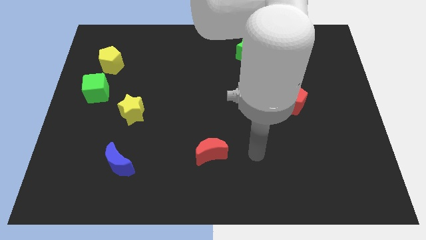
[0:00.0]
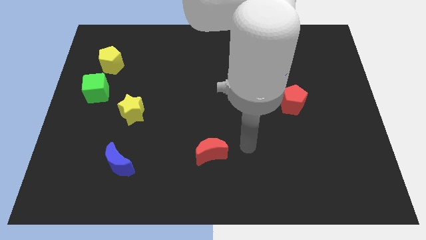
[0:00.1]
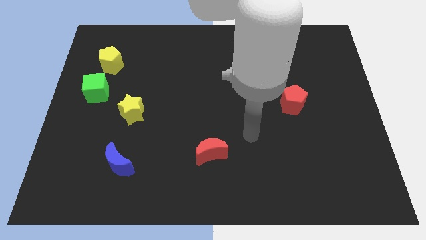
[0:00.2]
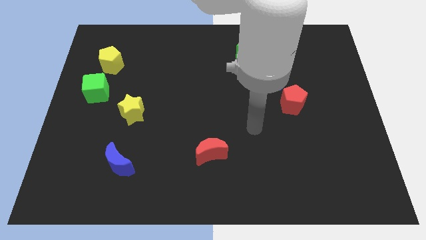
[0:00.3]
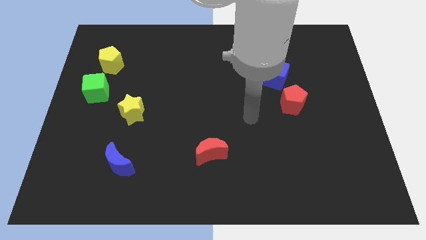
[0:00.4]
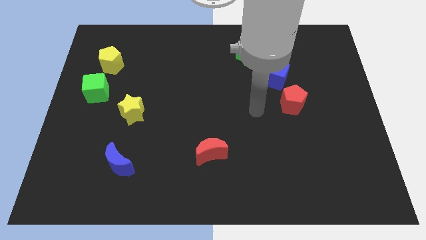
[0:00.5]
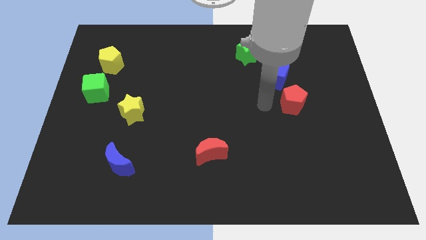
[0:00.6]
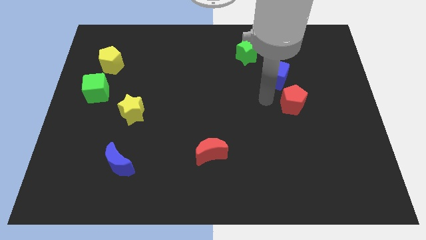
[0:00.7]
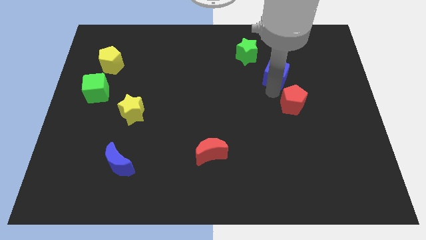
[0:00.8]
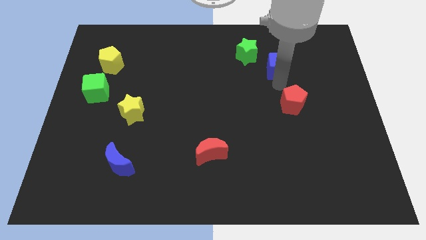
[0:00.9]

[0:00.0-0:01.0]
separate the red pentagon from the blue cube

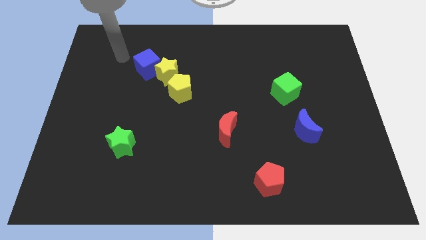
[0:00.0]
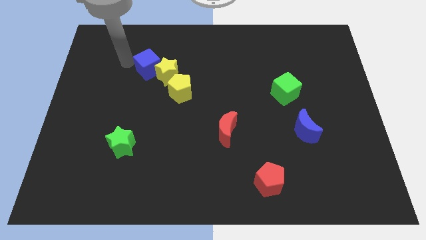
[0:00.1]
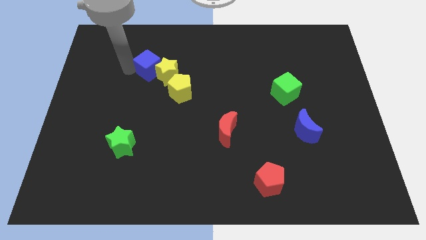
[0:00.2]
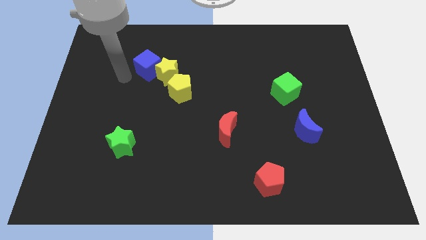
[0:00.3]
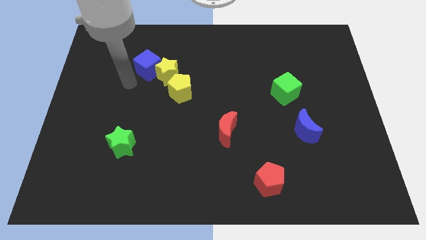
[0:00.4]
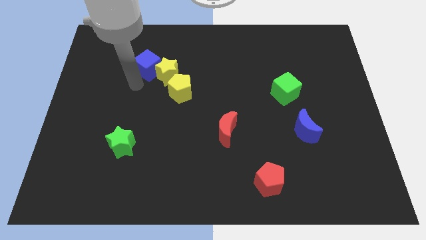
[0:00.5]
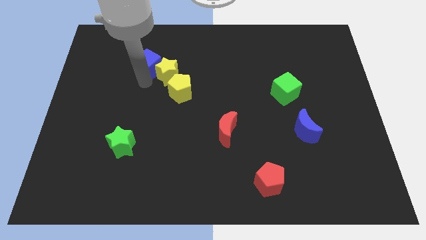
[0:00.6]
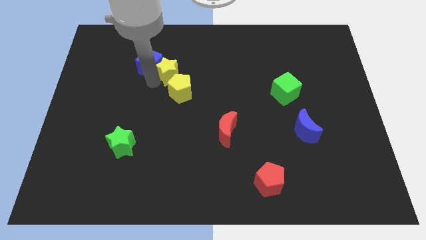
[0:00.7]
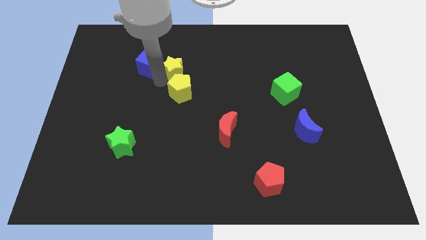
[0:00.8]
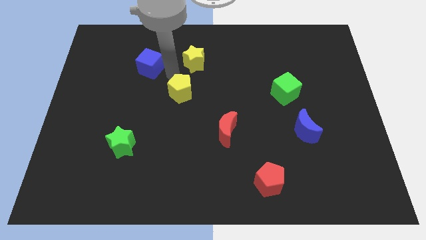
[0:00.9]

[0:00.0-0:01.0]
separate the blue cube from the yellow star

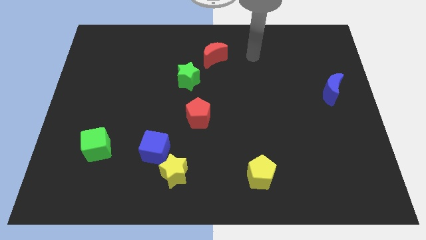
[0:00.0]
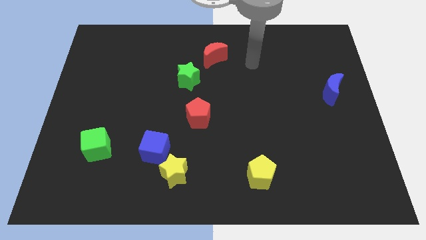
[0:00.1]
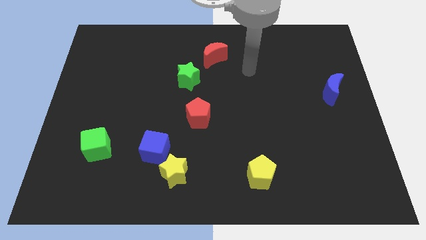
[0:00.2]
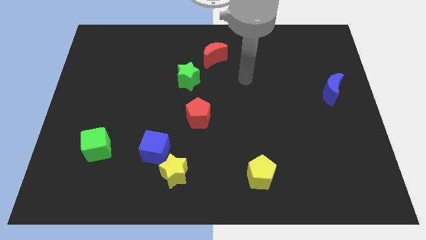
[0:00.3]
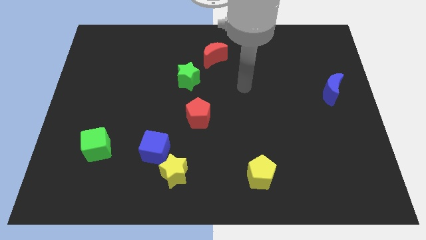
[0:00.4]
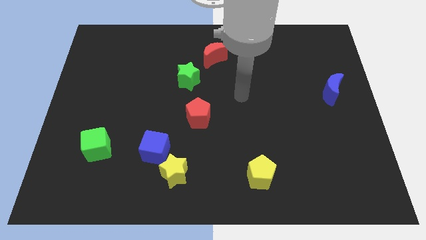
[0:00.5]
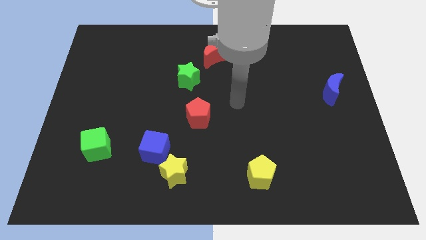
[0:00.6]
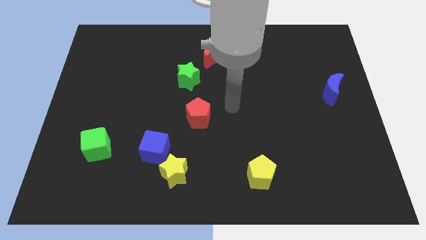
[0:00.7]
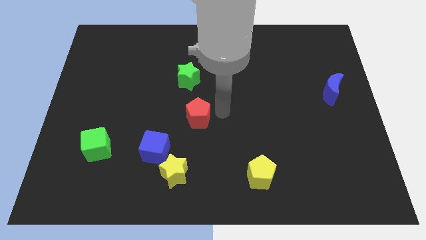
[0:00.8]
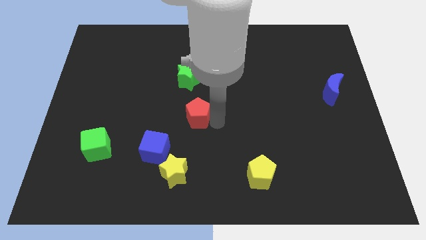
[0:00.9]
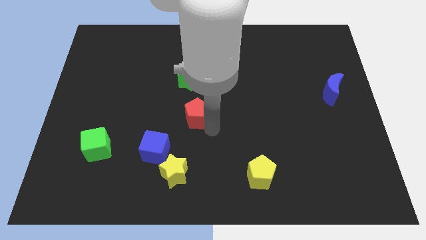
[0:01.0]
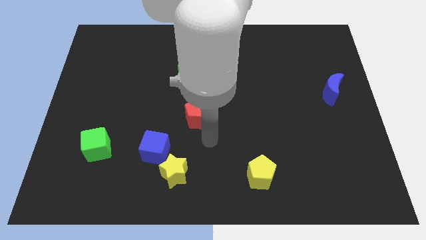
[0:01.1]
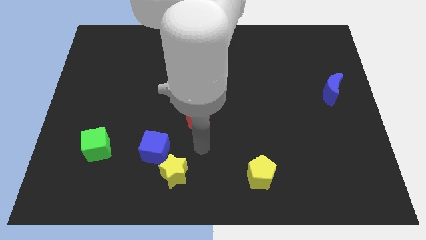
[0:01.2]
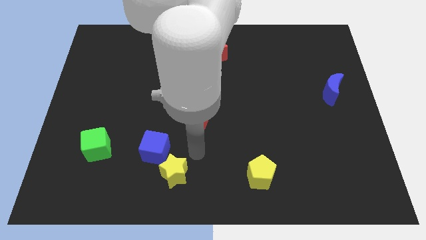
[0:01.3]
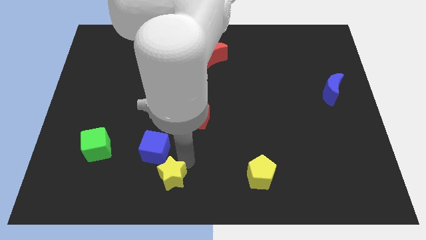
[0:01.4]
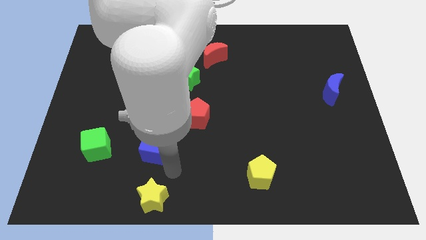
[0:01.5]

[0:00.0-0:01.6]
pull the blue cube apart from the yellow star

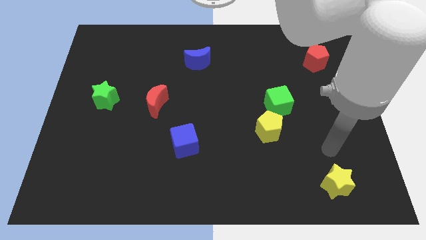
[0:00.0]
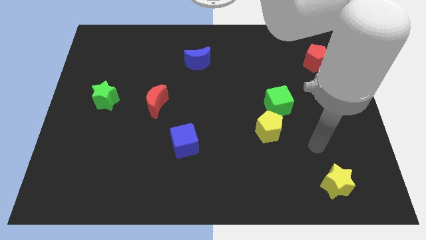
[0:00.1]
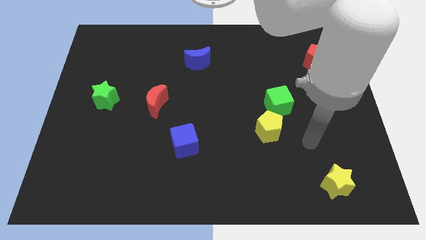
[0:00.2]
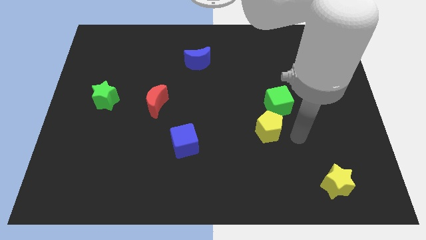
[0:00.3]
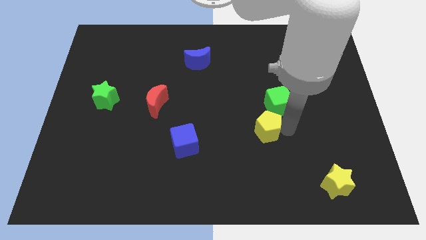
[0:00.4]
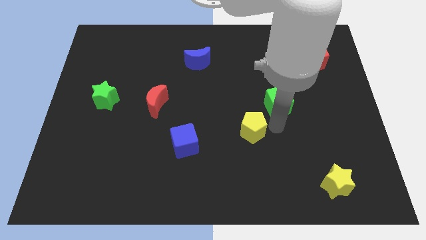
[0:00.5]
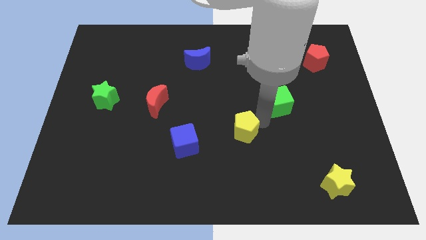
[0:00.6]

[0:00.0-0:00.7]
move the green cube away from the yellow pentagon

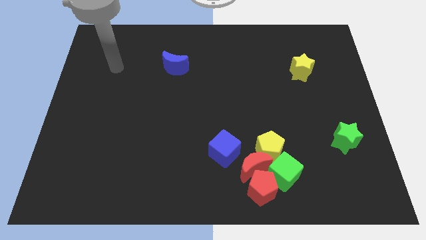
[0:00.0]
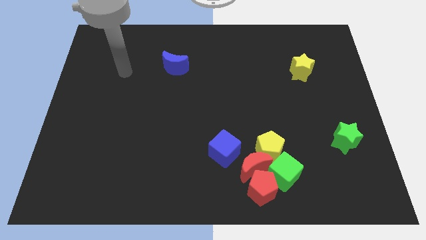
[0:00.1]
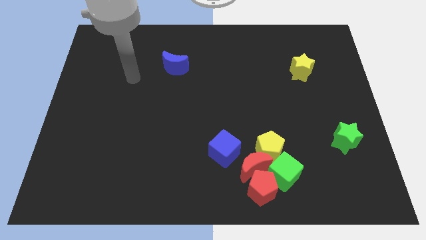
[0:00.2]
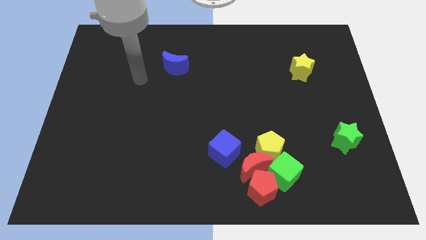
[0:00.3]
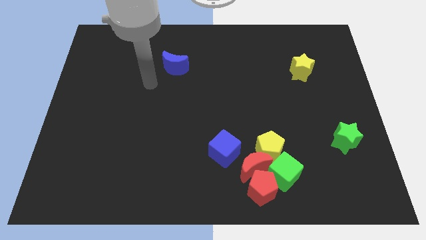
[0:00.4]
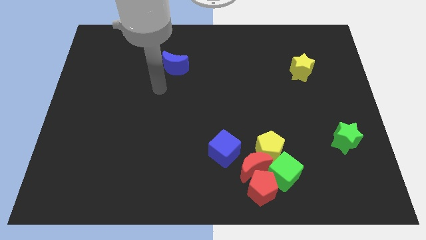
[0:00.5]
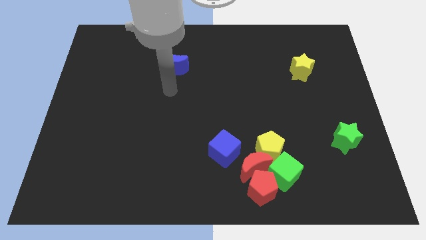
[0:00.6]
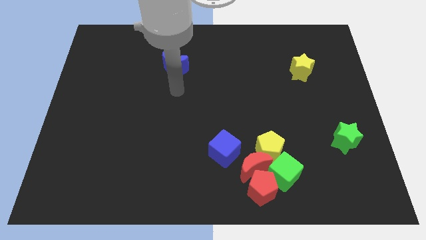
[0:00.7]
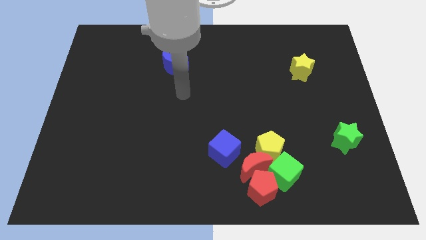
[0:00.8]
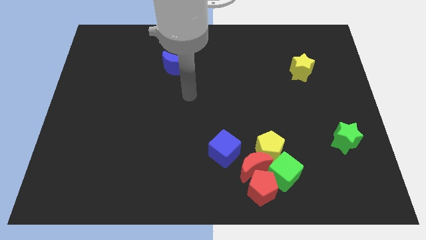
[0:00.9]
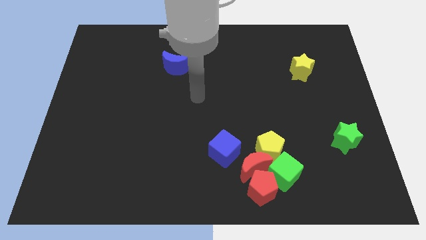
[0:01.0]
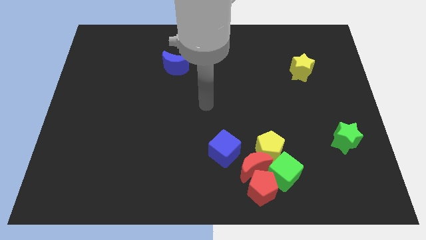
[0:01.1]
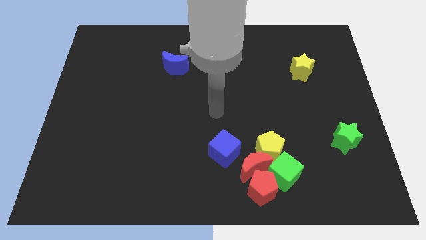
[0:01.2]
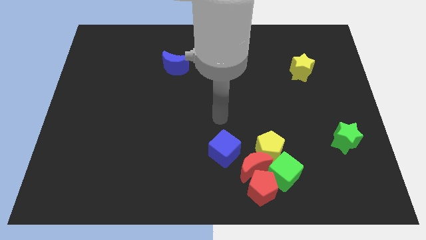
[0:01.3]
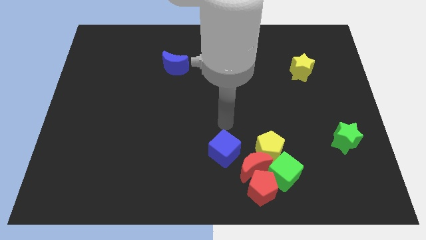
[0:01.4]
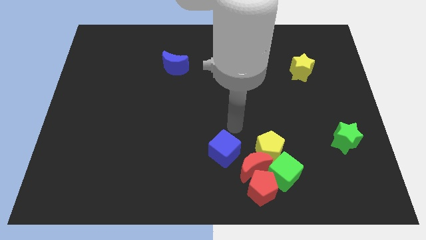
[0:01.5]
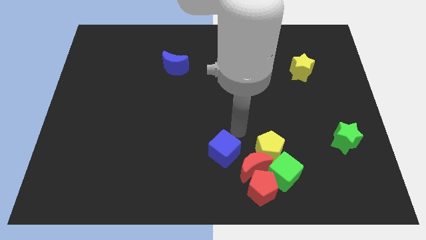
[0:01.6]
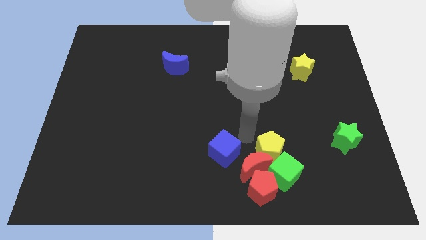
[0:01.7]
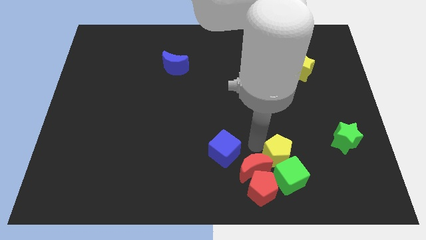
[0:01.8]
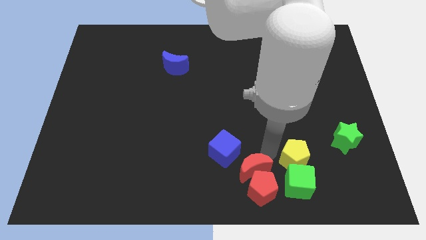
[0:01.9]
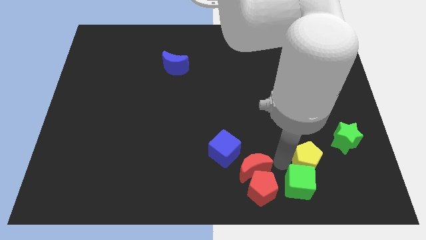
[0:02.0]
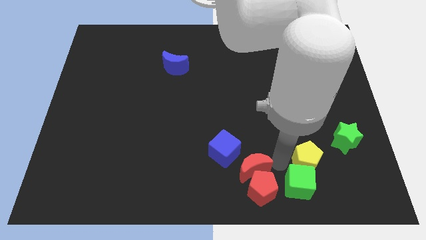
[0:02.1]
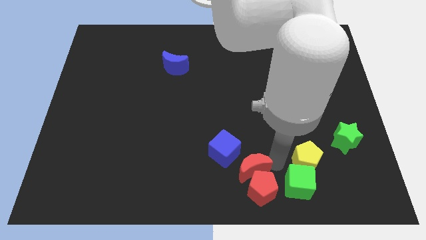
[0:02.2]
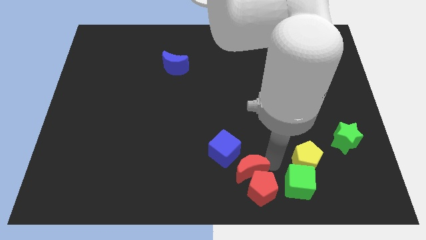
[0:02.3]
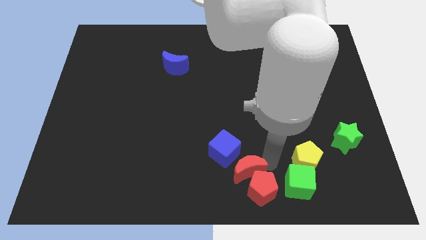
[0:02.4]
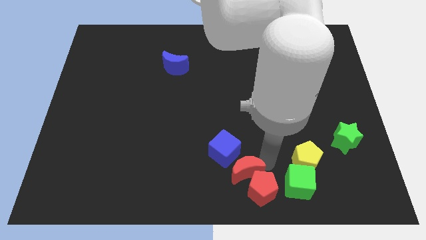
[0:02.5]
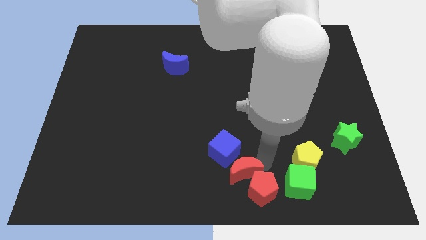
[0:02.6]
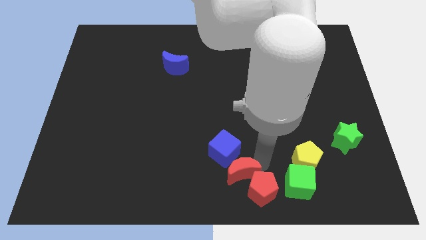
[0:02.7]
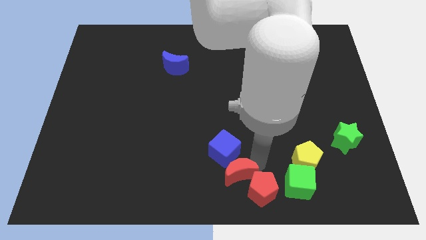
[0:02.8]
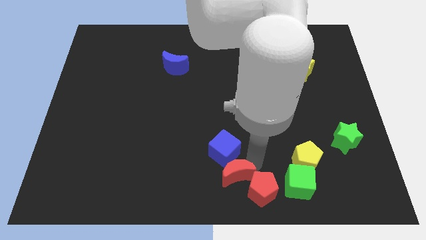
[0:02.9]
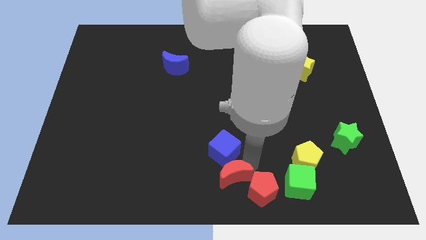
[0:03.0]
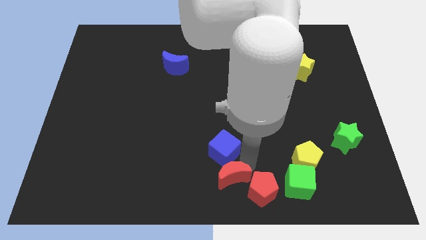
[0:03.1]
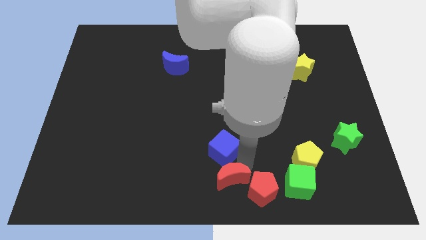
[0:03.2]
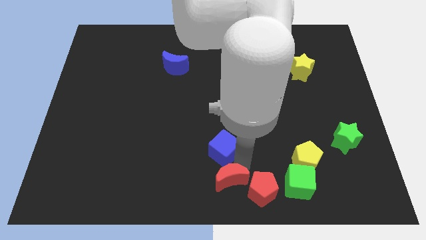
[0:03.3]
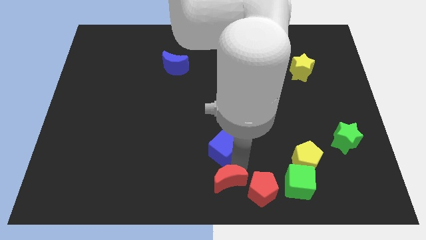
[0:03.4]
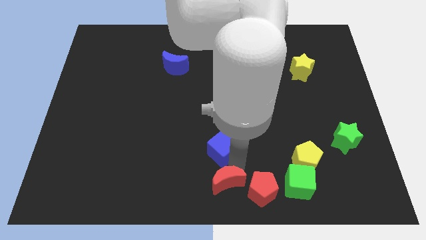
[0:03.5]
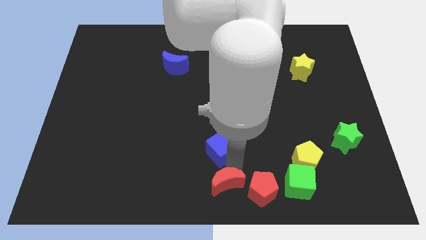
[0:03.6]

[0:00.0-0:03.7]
separate the red moon from the group of blocks

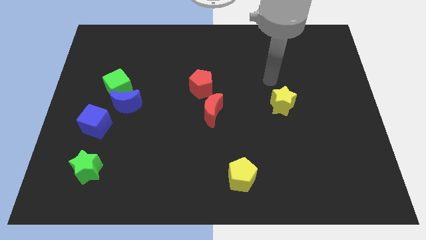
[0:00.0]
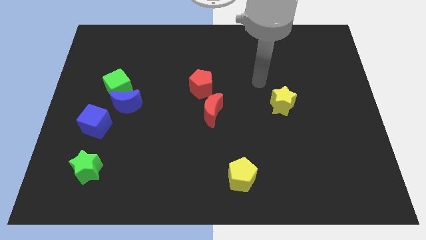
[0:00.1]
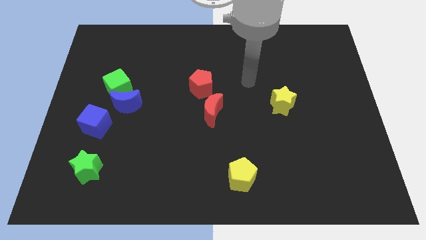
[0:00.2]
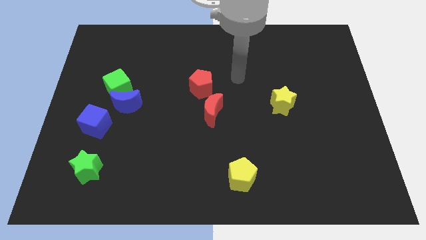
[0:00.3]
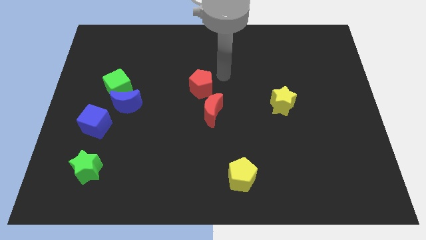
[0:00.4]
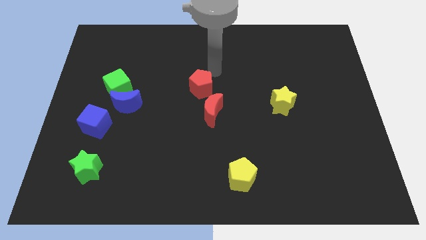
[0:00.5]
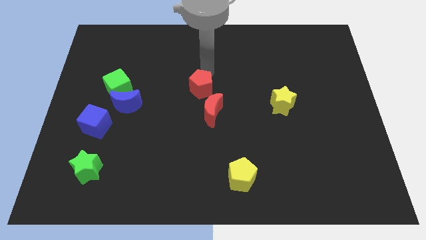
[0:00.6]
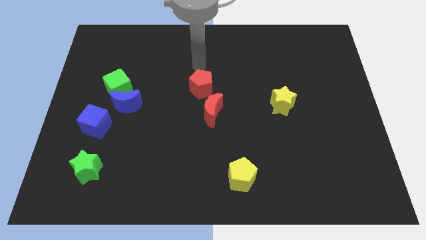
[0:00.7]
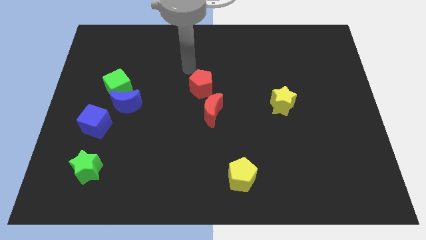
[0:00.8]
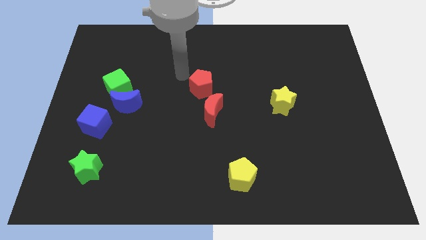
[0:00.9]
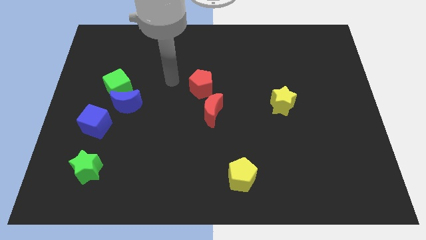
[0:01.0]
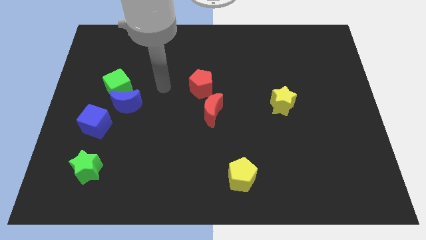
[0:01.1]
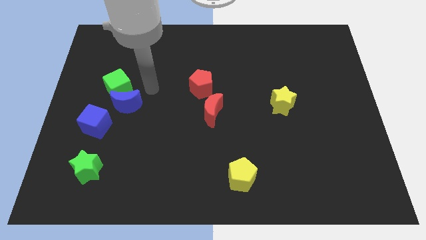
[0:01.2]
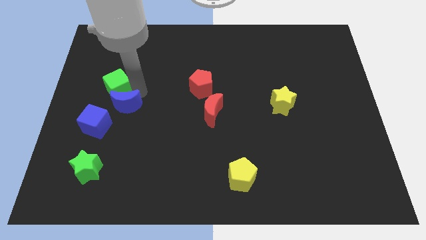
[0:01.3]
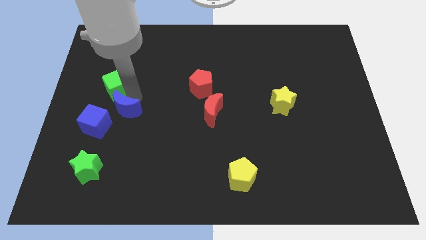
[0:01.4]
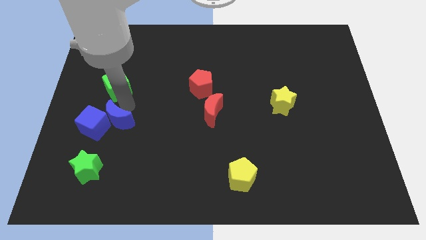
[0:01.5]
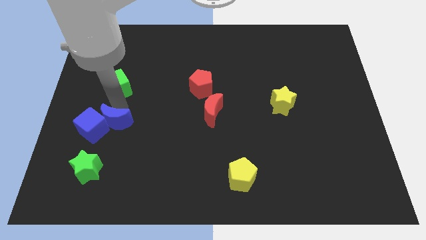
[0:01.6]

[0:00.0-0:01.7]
pull the green cube apart from the blue moon
